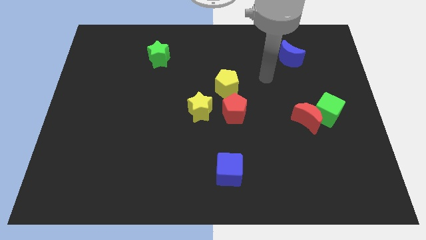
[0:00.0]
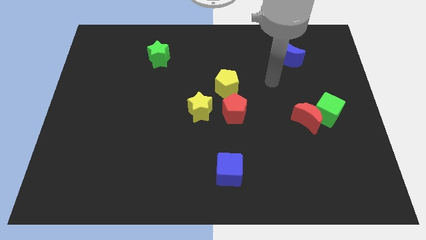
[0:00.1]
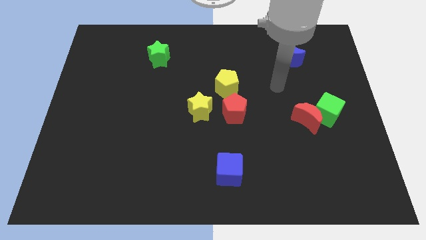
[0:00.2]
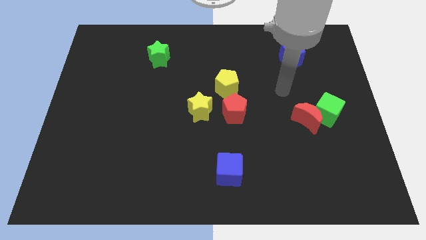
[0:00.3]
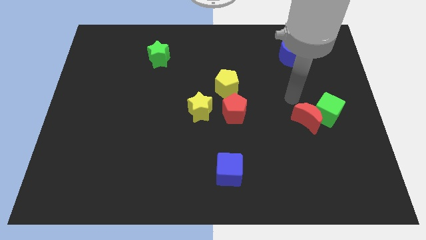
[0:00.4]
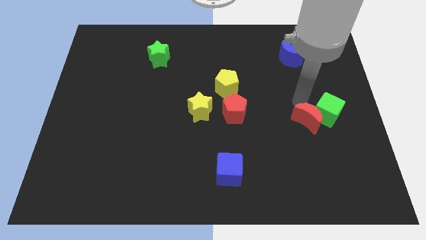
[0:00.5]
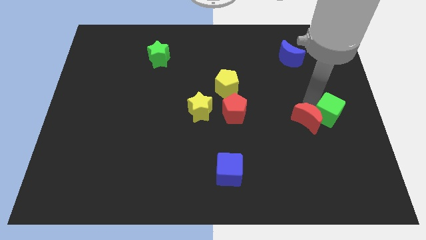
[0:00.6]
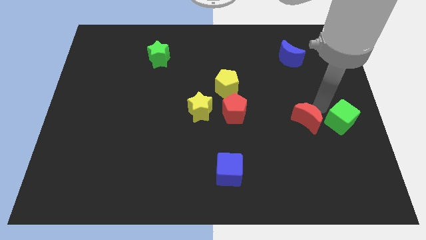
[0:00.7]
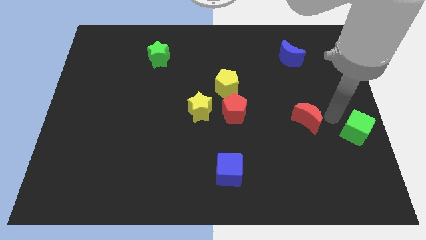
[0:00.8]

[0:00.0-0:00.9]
pull the red moon apart from the green cube

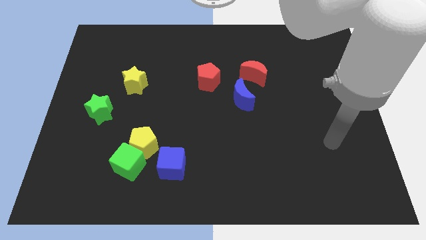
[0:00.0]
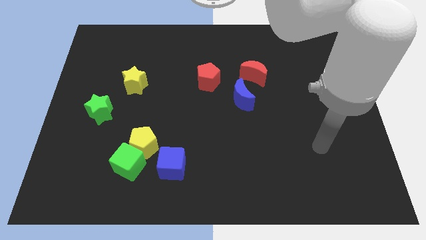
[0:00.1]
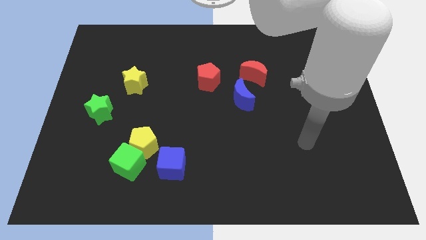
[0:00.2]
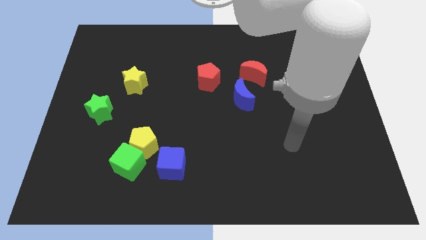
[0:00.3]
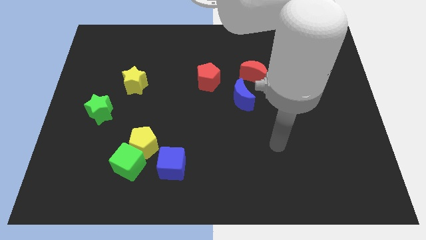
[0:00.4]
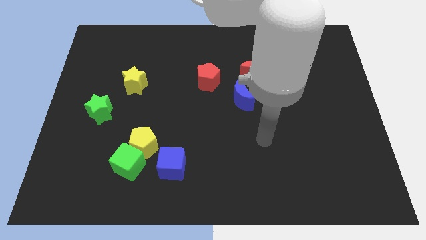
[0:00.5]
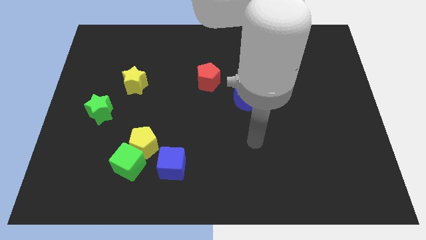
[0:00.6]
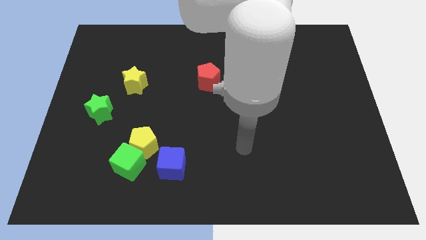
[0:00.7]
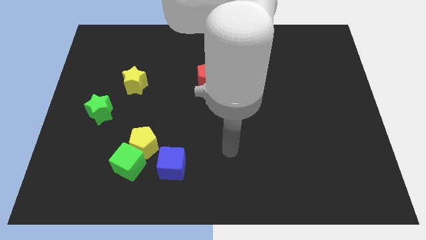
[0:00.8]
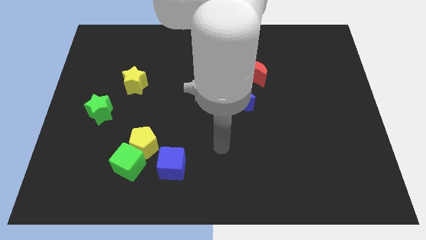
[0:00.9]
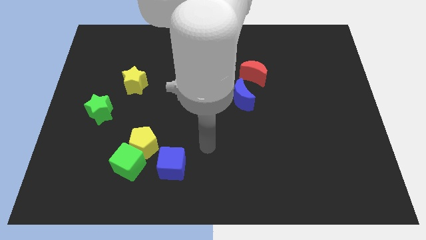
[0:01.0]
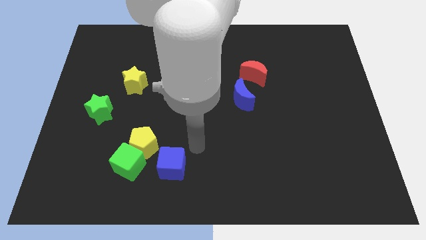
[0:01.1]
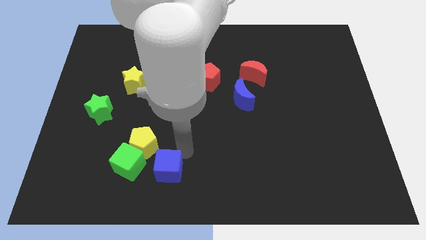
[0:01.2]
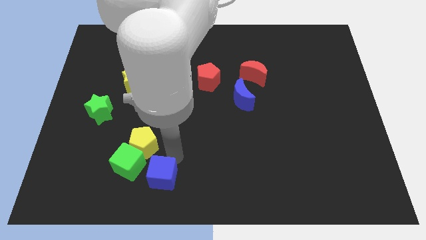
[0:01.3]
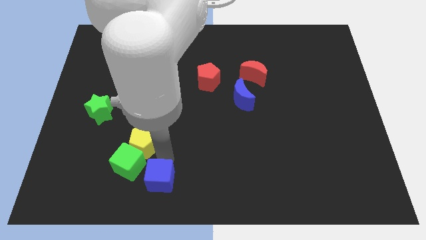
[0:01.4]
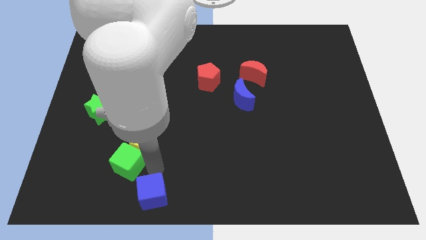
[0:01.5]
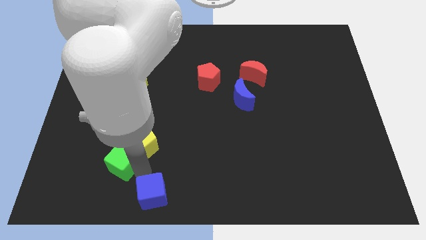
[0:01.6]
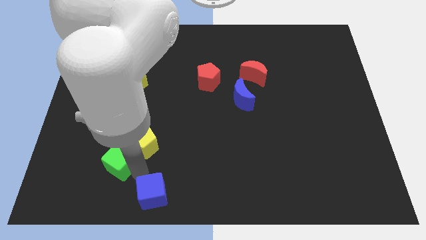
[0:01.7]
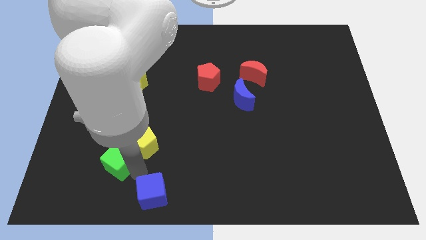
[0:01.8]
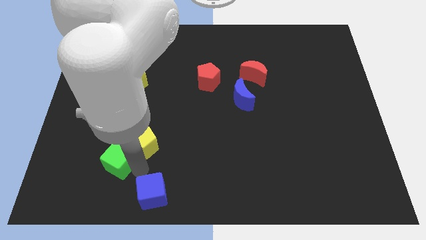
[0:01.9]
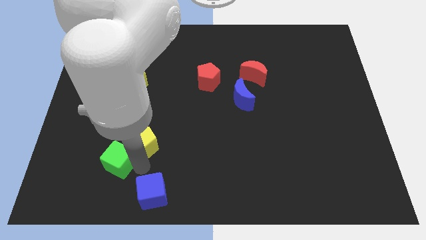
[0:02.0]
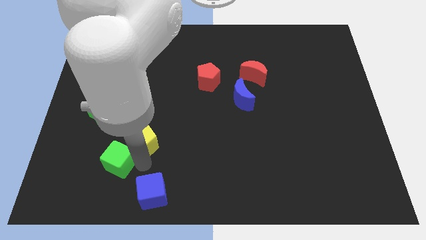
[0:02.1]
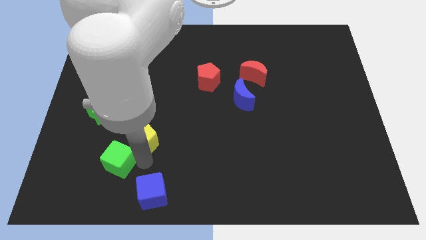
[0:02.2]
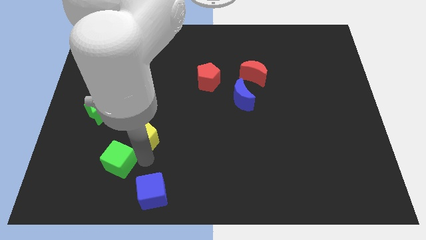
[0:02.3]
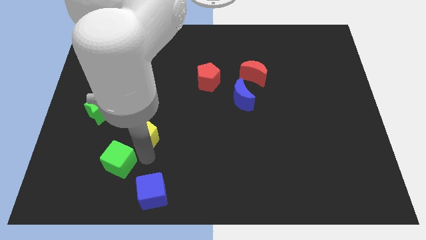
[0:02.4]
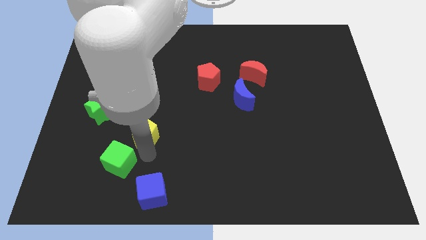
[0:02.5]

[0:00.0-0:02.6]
move the yellow pentagon away from the green cube and blue cube

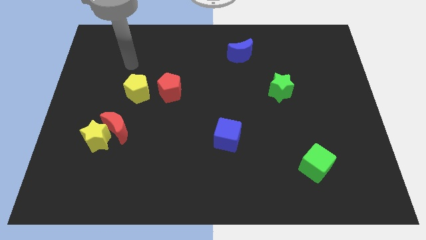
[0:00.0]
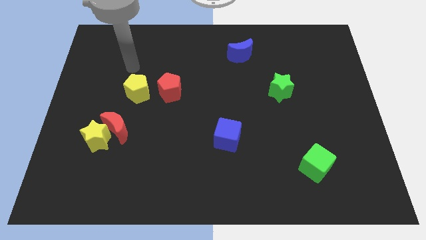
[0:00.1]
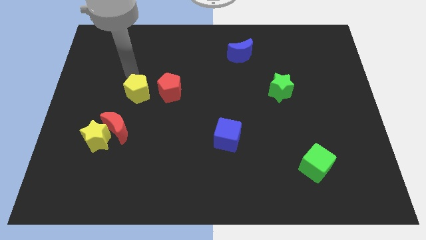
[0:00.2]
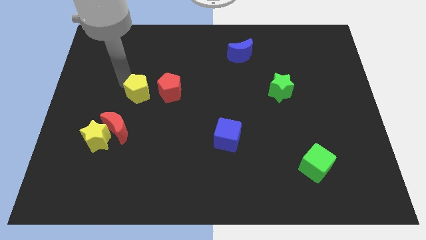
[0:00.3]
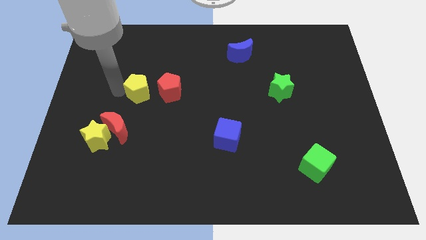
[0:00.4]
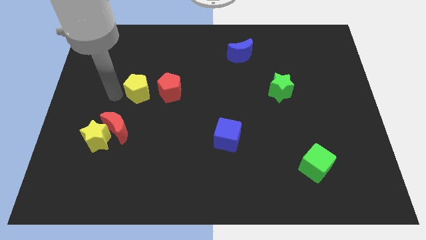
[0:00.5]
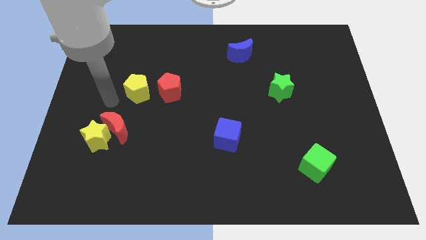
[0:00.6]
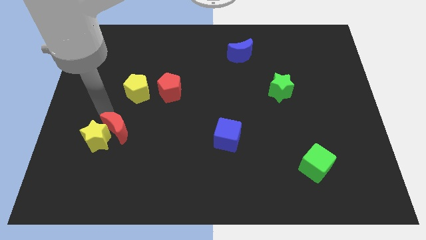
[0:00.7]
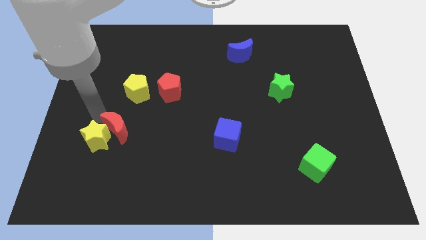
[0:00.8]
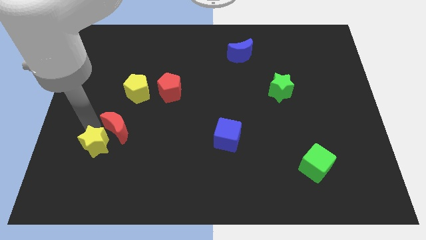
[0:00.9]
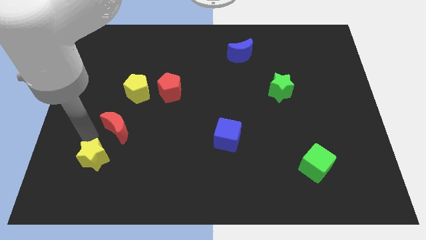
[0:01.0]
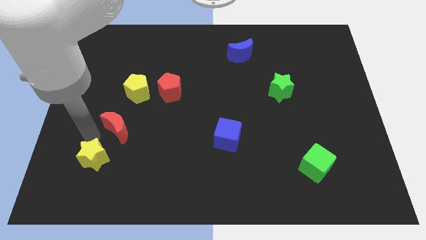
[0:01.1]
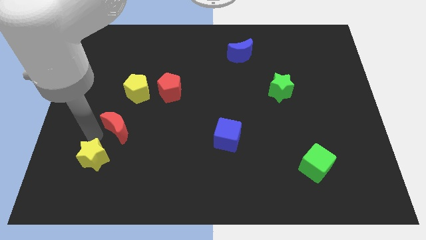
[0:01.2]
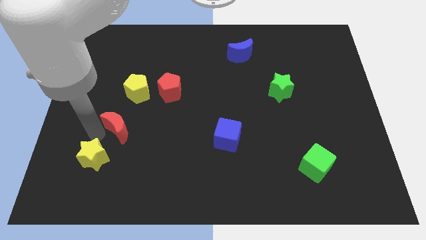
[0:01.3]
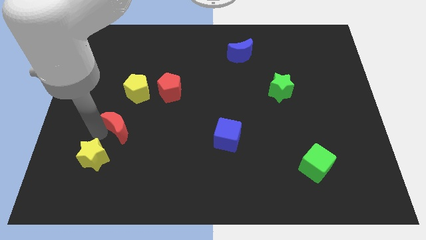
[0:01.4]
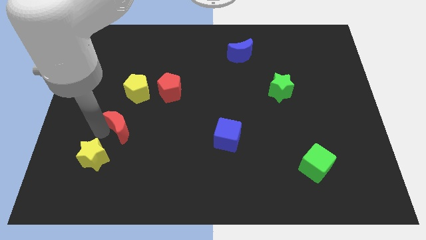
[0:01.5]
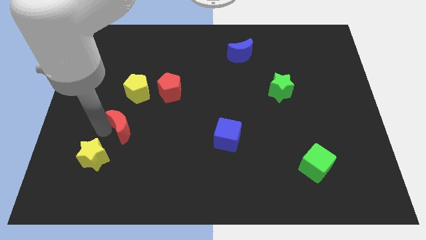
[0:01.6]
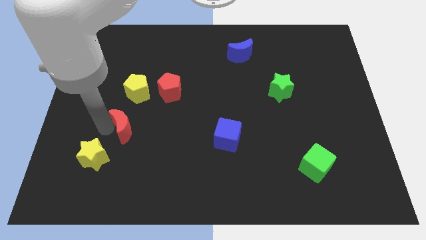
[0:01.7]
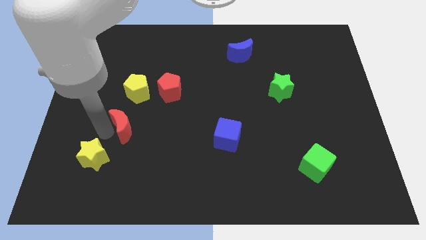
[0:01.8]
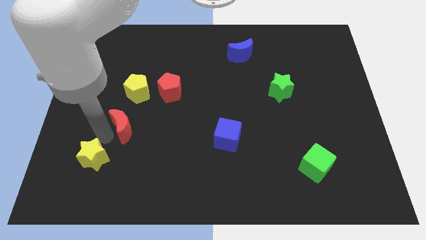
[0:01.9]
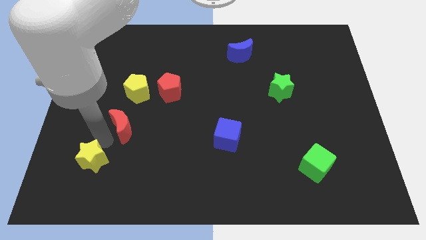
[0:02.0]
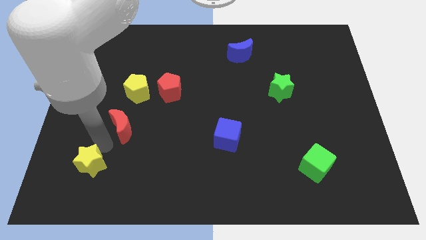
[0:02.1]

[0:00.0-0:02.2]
separate the red moon from the yellow star

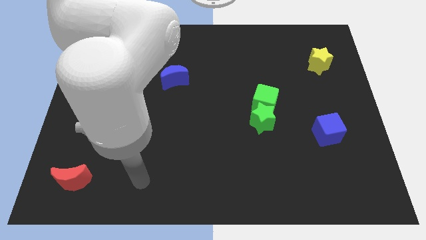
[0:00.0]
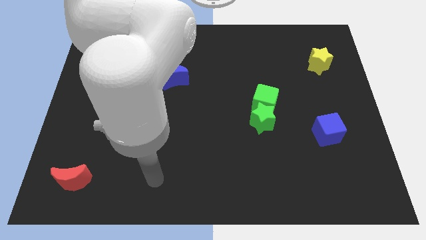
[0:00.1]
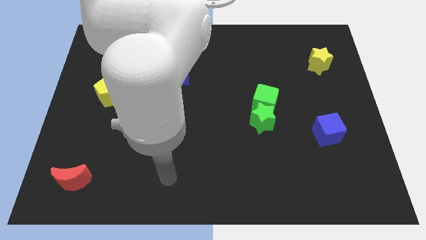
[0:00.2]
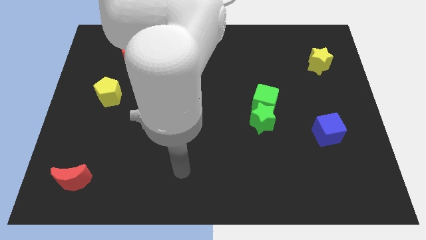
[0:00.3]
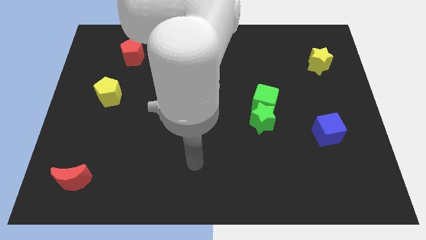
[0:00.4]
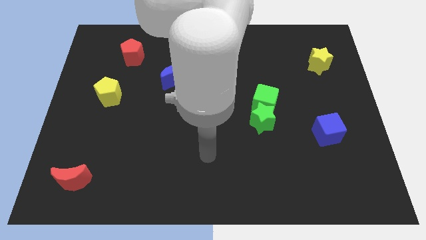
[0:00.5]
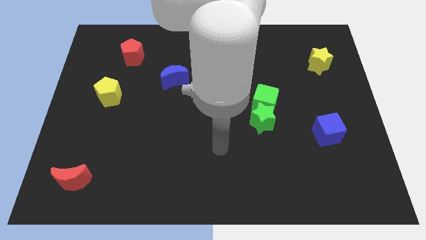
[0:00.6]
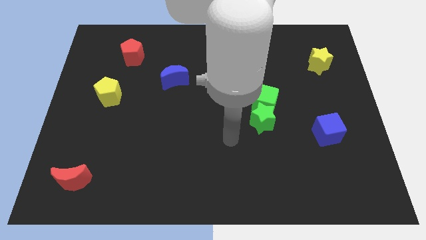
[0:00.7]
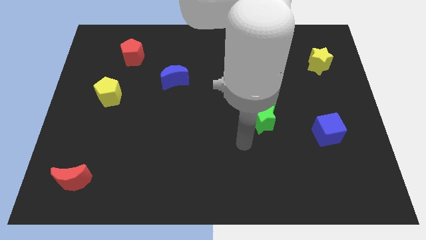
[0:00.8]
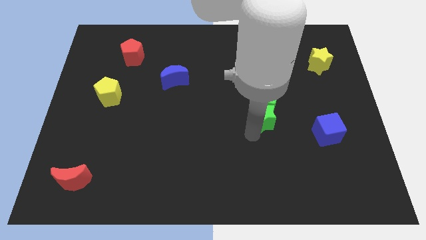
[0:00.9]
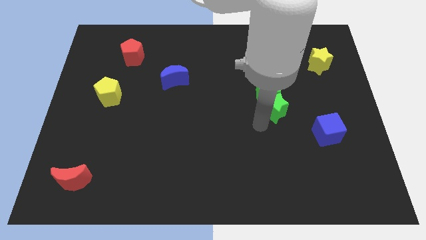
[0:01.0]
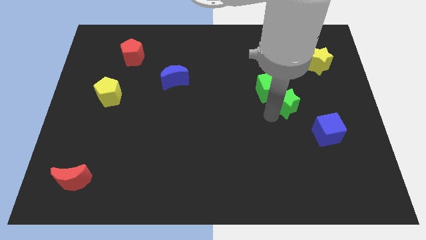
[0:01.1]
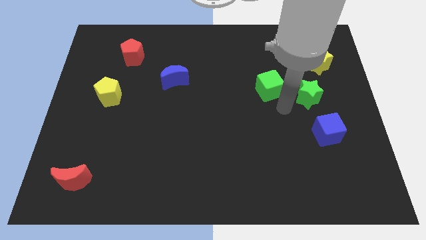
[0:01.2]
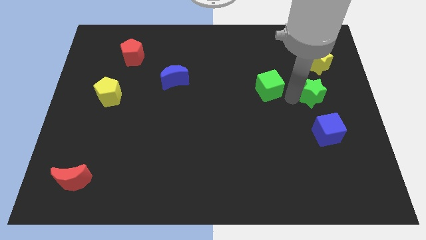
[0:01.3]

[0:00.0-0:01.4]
move the green cube away from the green star

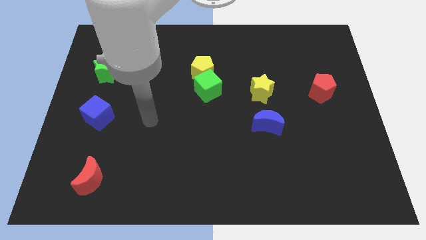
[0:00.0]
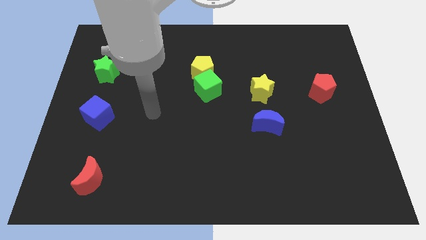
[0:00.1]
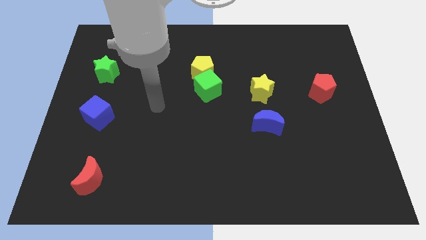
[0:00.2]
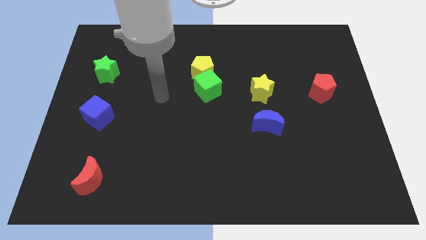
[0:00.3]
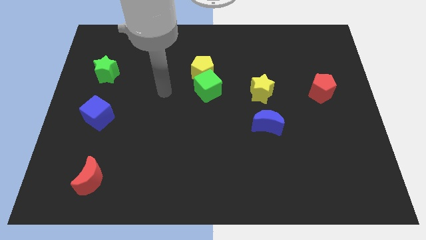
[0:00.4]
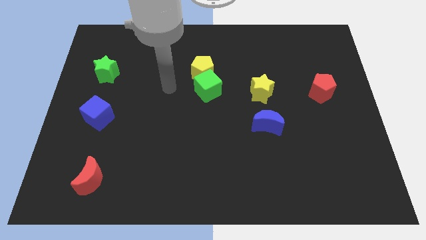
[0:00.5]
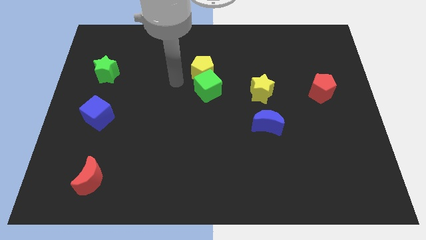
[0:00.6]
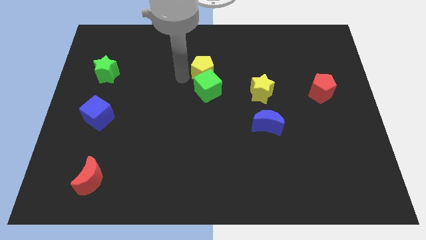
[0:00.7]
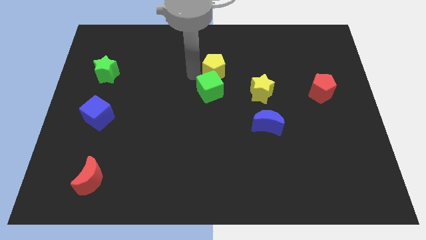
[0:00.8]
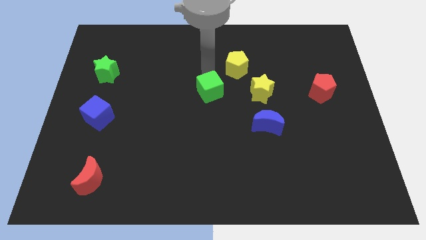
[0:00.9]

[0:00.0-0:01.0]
pull the green cube apart from the yellow pentagon

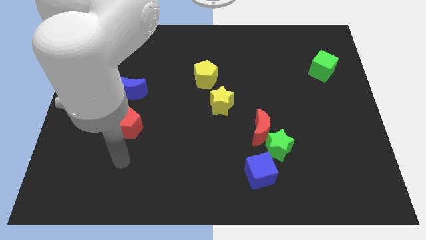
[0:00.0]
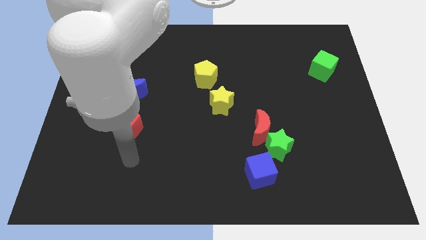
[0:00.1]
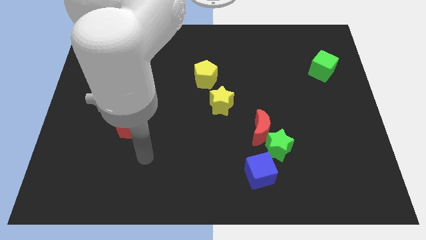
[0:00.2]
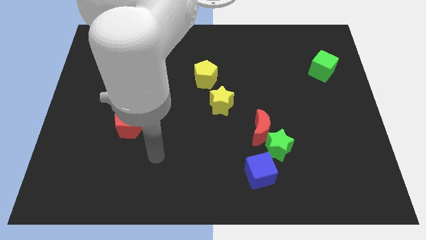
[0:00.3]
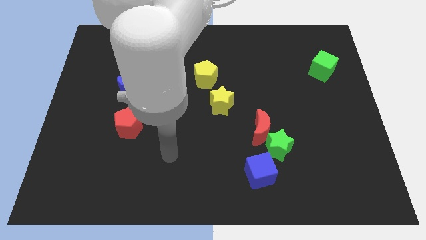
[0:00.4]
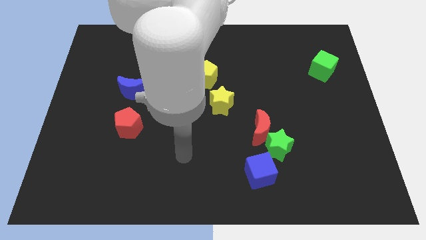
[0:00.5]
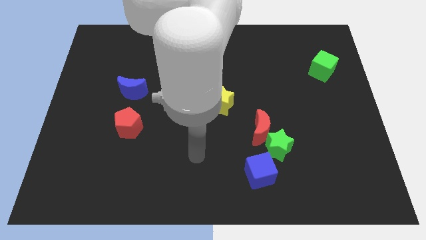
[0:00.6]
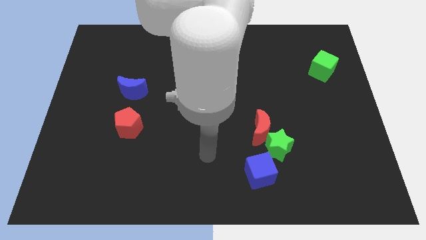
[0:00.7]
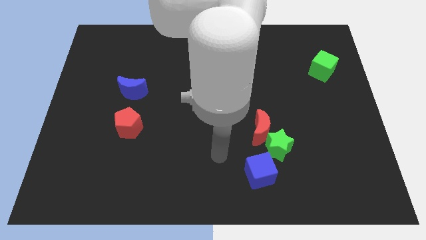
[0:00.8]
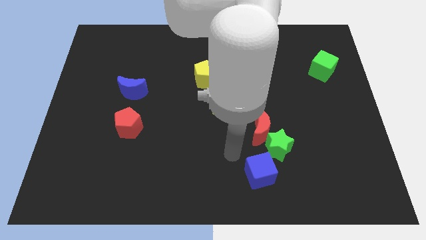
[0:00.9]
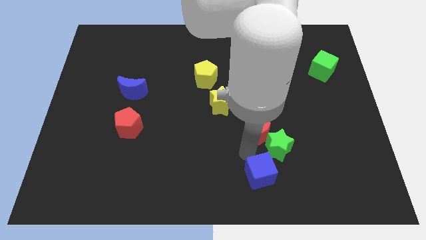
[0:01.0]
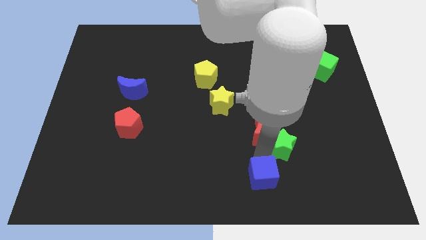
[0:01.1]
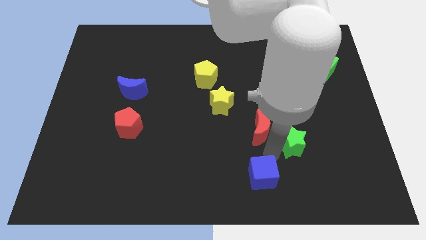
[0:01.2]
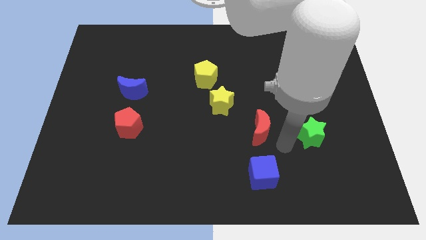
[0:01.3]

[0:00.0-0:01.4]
pull the red moon apart from the green star

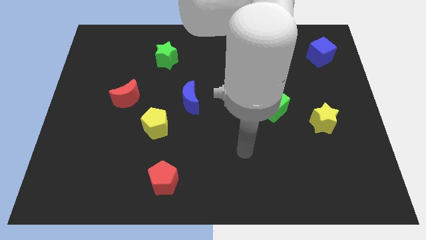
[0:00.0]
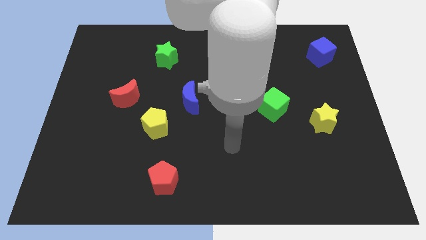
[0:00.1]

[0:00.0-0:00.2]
separate the blue moon from the yellow pentagon
